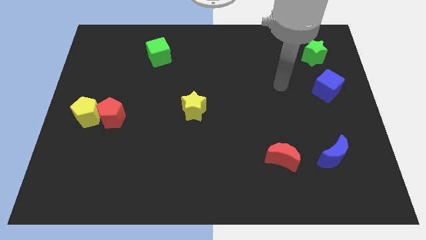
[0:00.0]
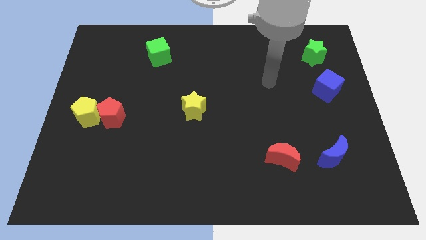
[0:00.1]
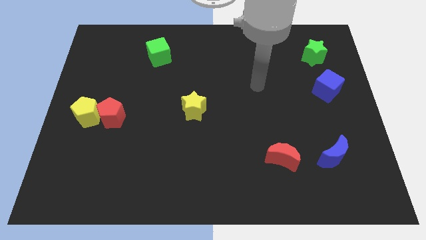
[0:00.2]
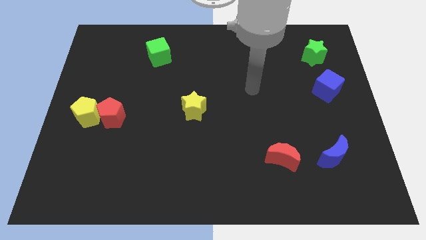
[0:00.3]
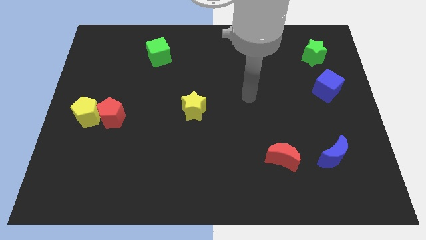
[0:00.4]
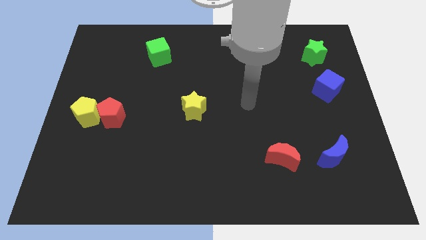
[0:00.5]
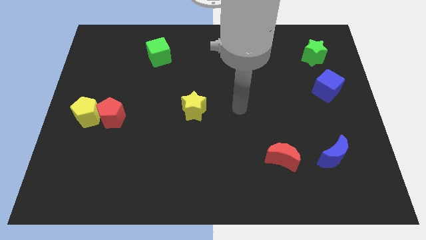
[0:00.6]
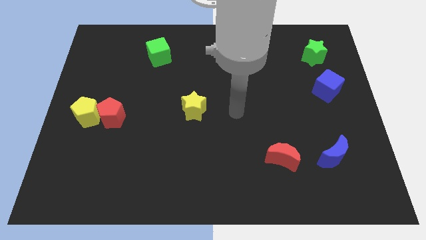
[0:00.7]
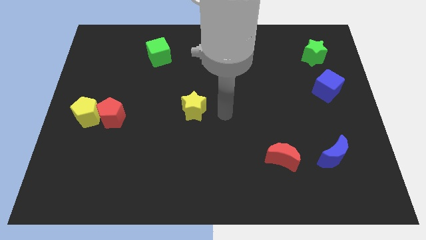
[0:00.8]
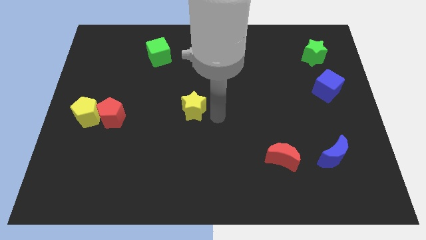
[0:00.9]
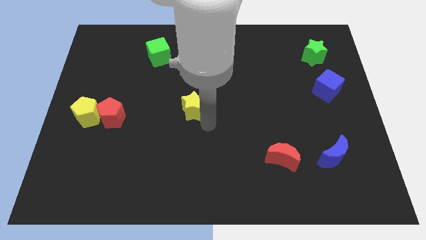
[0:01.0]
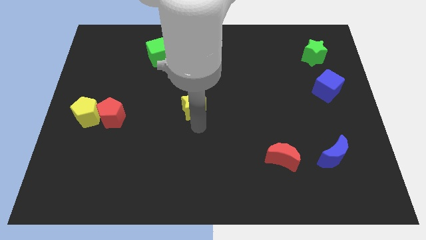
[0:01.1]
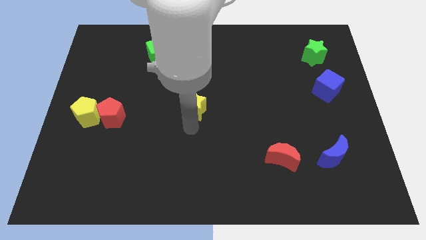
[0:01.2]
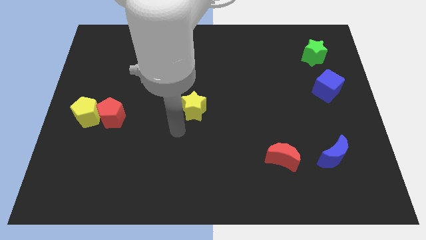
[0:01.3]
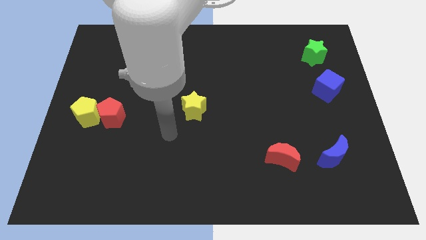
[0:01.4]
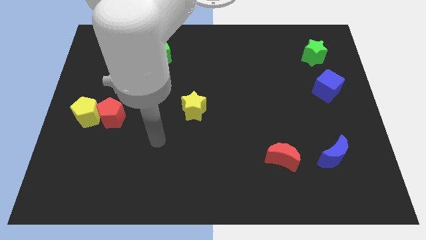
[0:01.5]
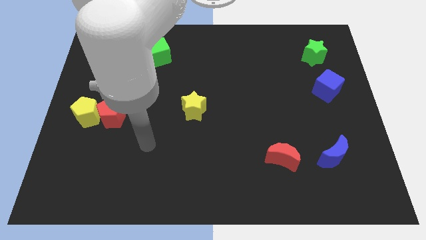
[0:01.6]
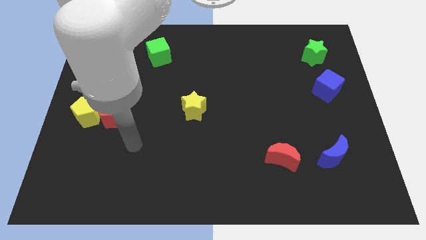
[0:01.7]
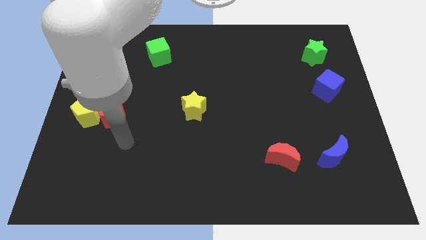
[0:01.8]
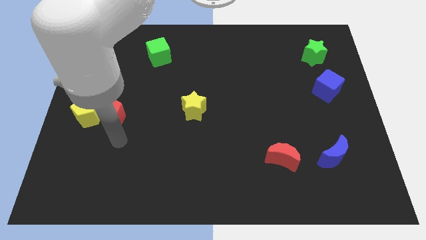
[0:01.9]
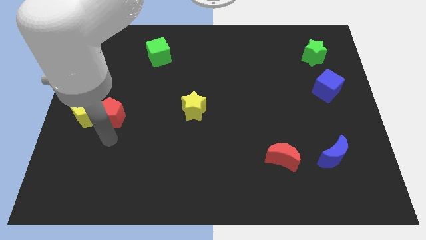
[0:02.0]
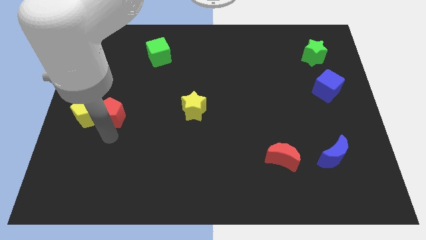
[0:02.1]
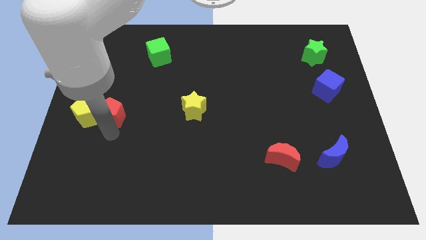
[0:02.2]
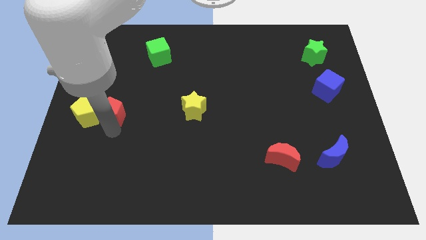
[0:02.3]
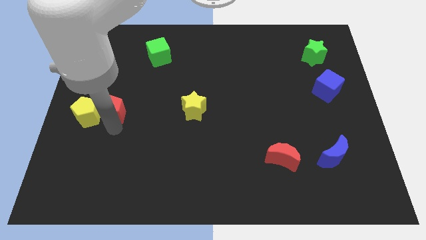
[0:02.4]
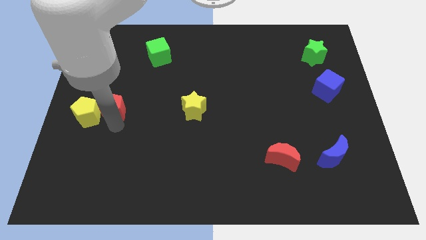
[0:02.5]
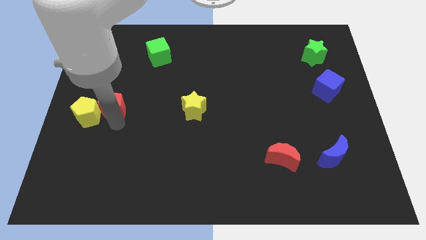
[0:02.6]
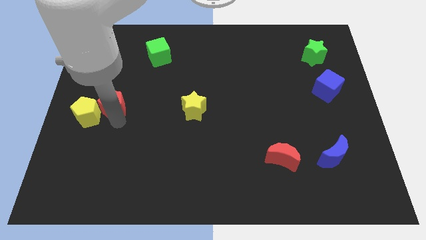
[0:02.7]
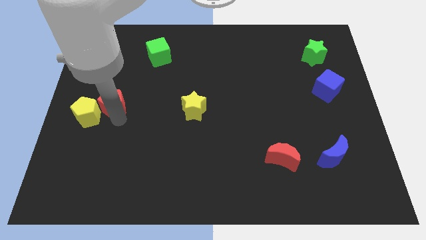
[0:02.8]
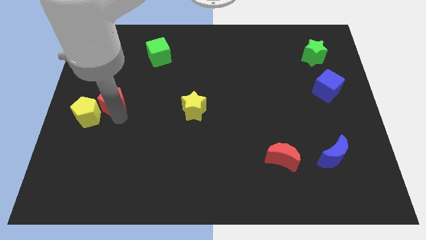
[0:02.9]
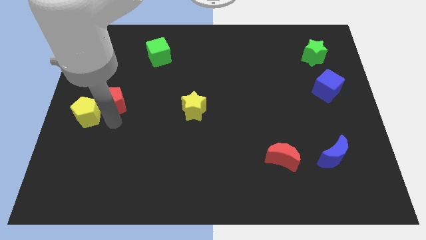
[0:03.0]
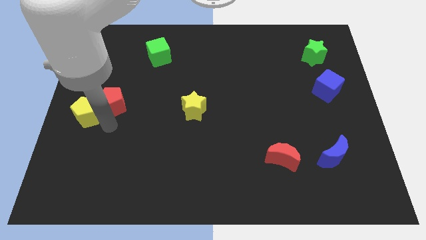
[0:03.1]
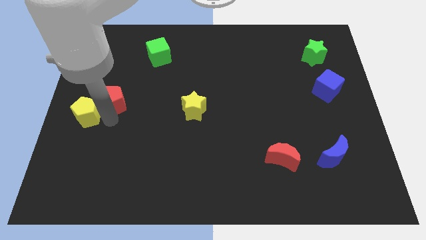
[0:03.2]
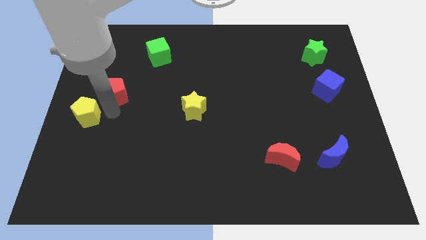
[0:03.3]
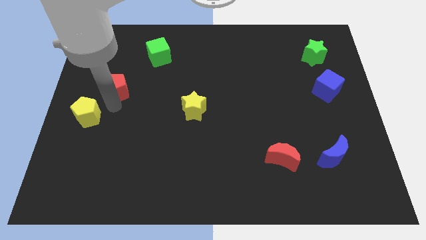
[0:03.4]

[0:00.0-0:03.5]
push the red pentagon a little up

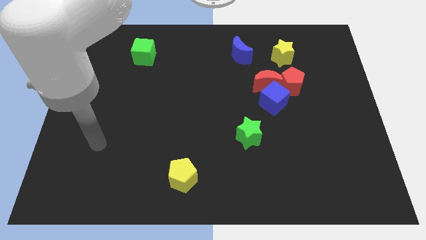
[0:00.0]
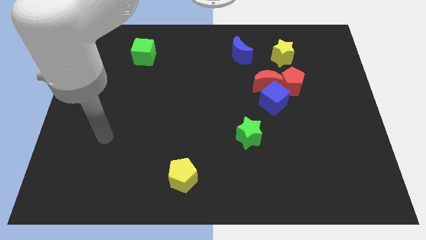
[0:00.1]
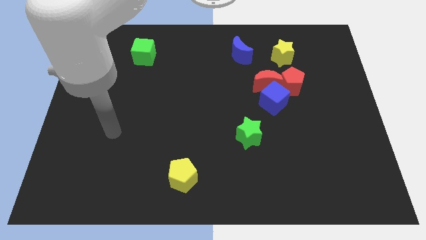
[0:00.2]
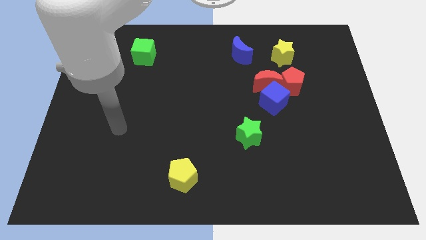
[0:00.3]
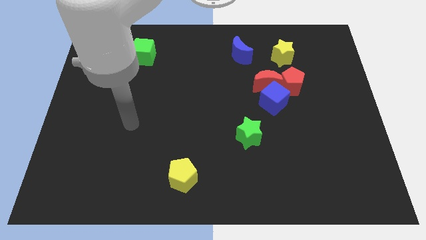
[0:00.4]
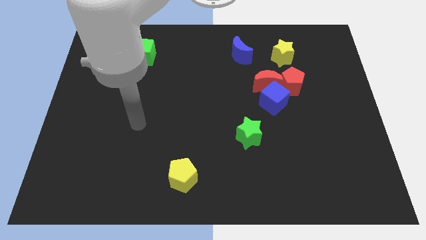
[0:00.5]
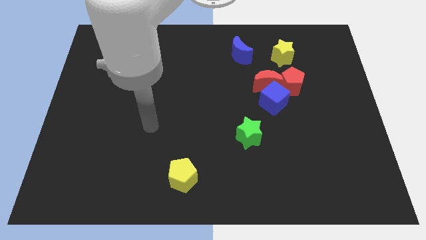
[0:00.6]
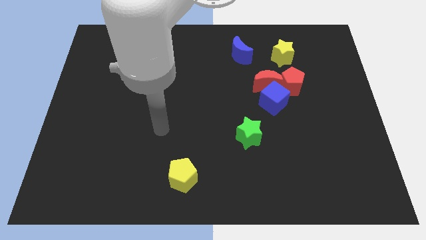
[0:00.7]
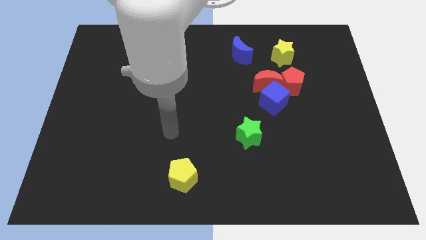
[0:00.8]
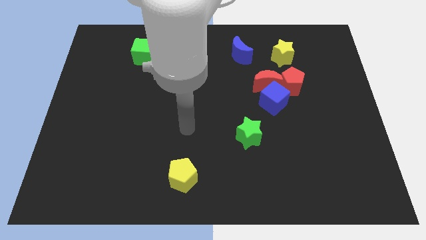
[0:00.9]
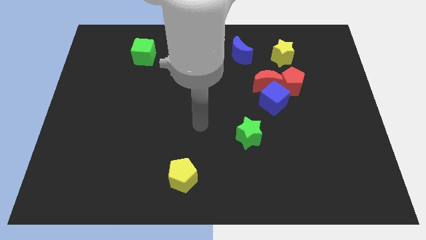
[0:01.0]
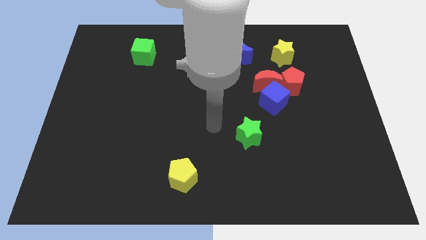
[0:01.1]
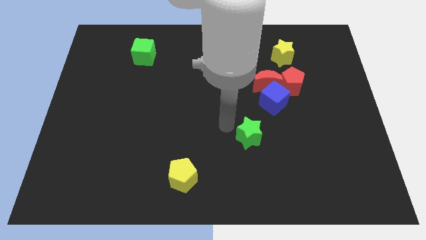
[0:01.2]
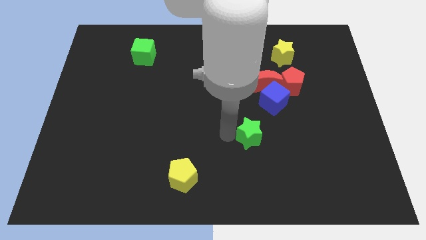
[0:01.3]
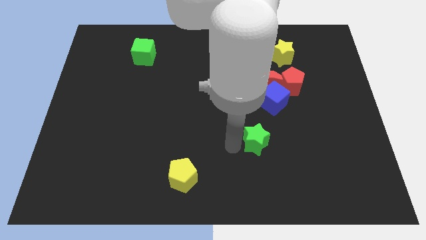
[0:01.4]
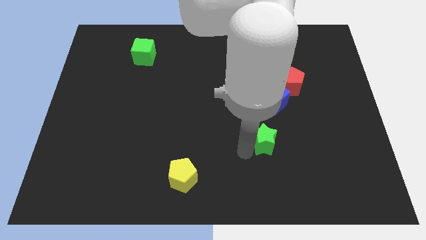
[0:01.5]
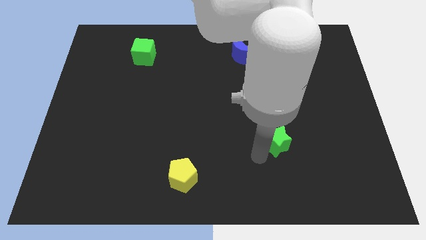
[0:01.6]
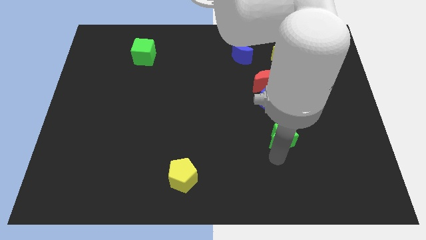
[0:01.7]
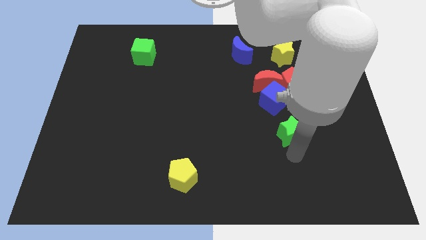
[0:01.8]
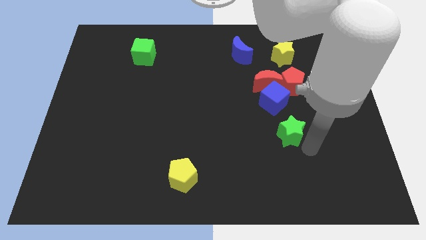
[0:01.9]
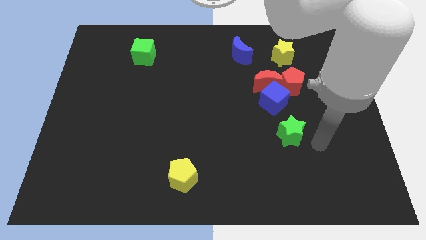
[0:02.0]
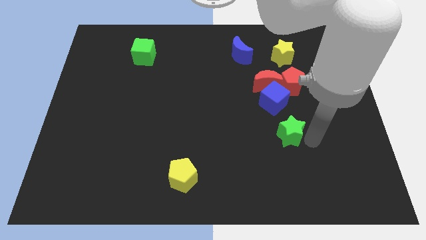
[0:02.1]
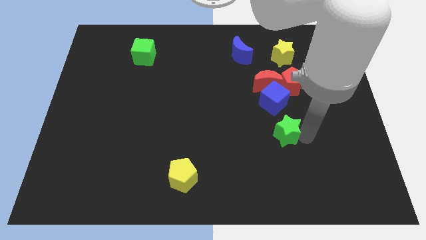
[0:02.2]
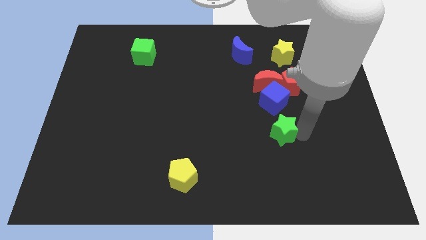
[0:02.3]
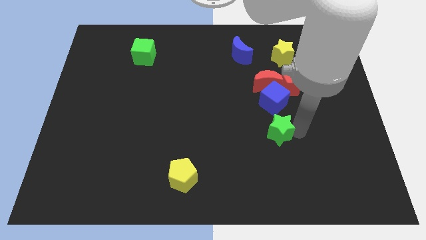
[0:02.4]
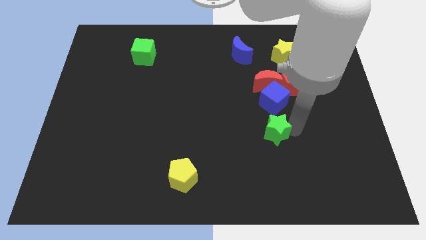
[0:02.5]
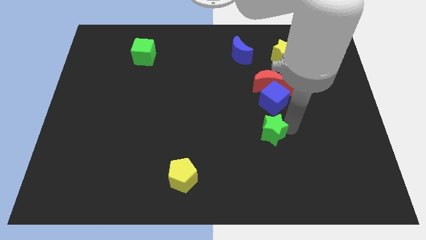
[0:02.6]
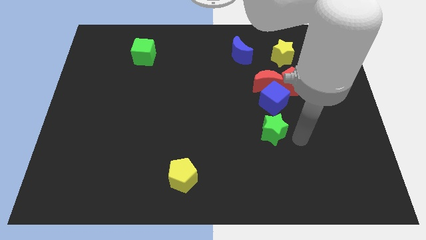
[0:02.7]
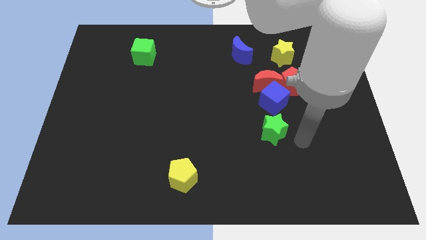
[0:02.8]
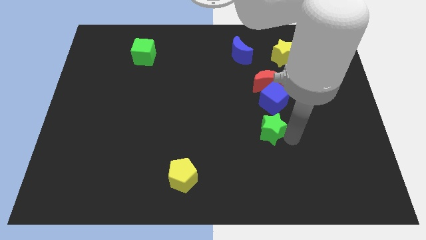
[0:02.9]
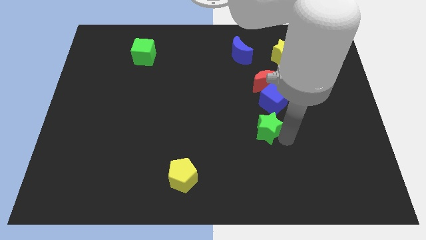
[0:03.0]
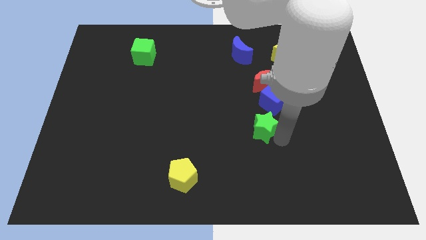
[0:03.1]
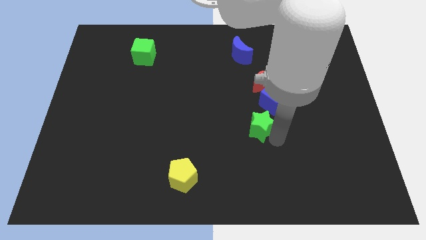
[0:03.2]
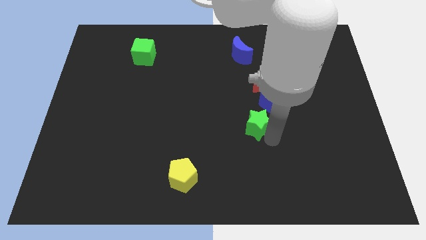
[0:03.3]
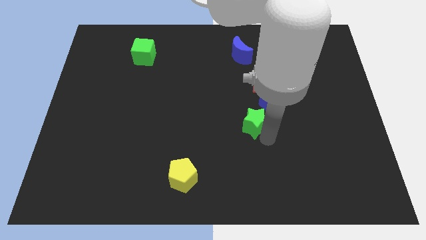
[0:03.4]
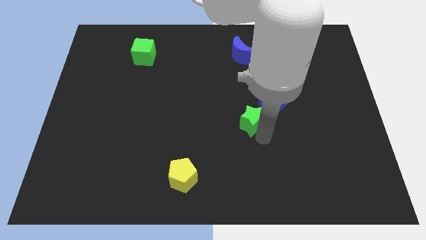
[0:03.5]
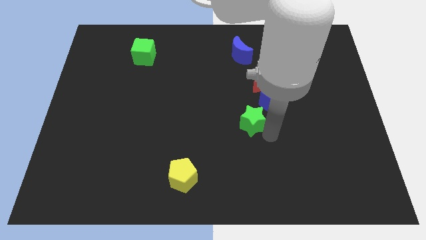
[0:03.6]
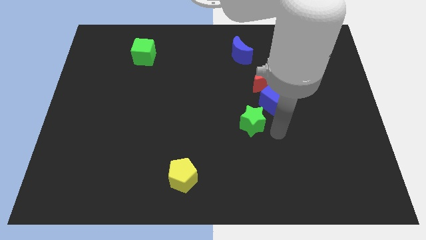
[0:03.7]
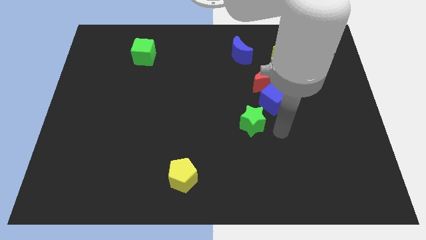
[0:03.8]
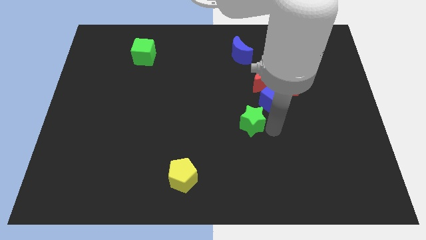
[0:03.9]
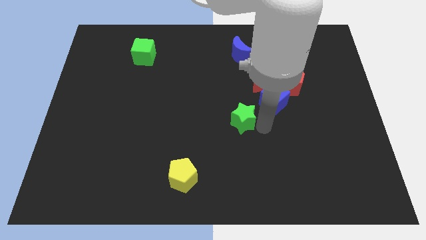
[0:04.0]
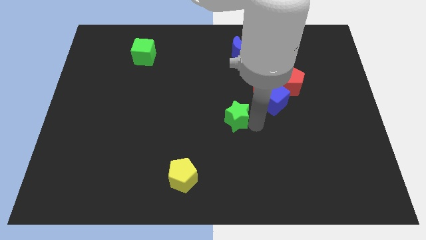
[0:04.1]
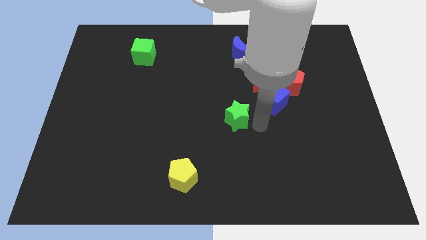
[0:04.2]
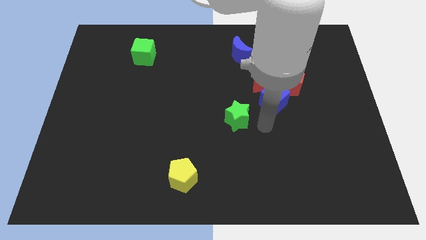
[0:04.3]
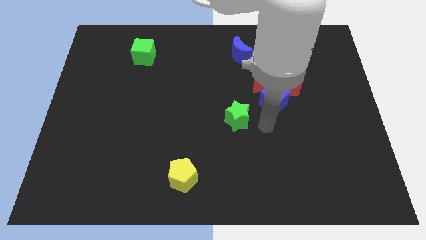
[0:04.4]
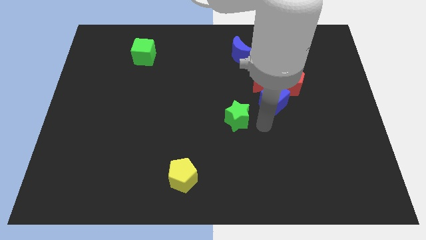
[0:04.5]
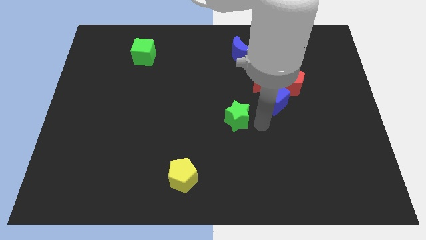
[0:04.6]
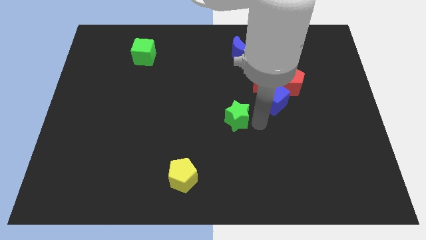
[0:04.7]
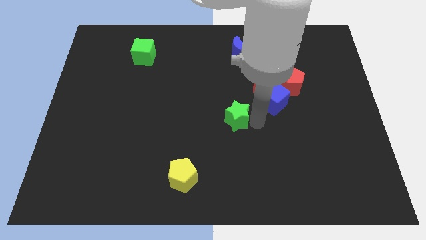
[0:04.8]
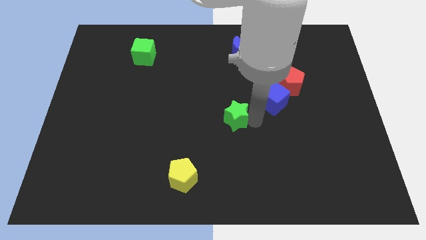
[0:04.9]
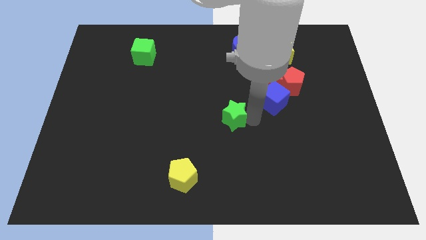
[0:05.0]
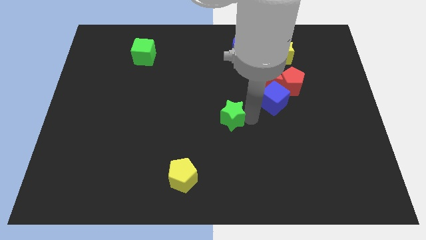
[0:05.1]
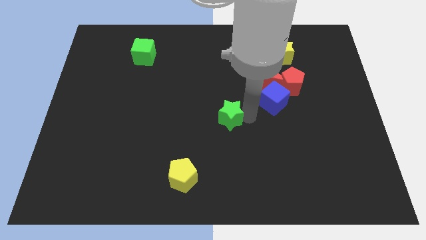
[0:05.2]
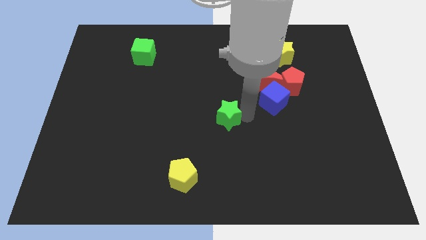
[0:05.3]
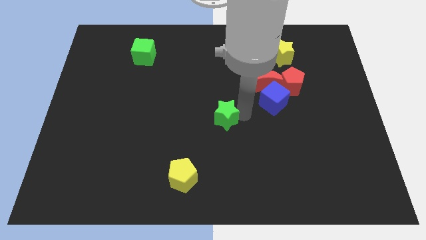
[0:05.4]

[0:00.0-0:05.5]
slide the green star upwards and then left somewhat
